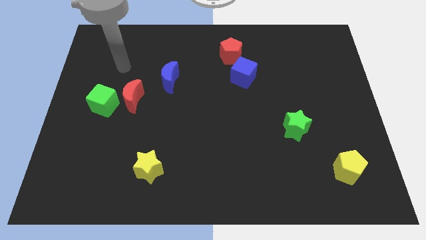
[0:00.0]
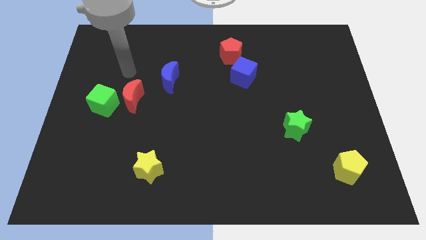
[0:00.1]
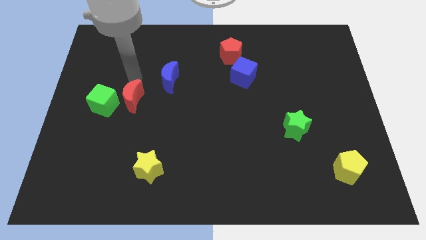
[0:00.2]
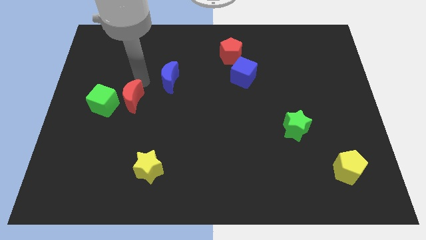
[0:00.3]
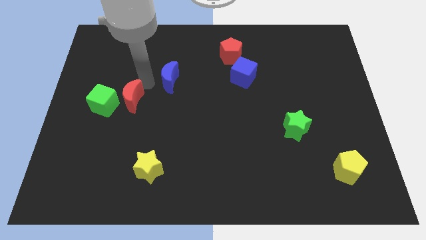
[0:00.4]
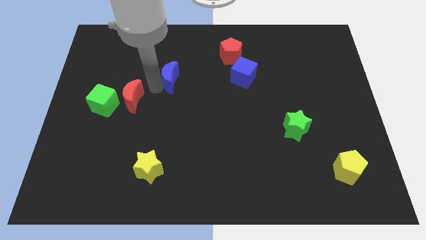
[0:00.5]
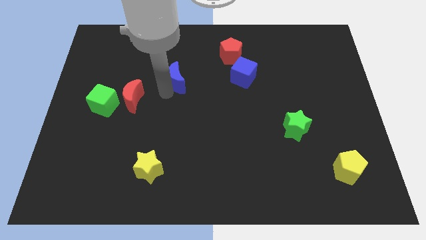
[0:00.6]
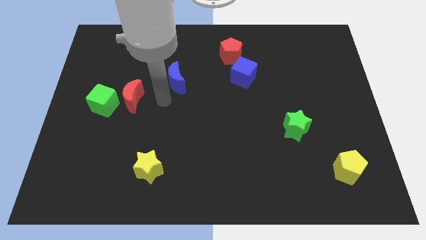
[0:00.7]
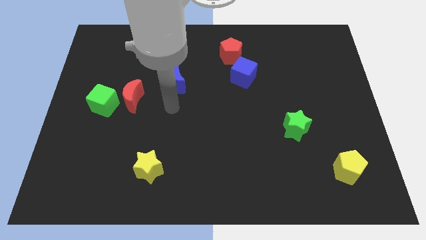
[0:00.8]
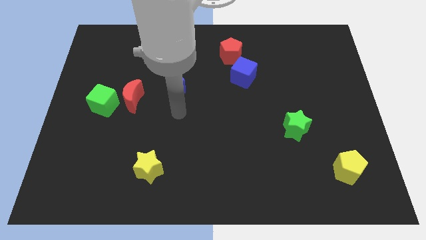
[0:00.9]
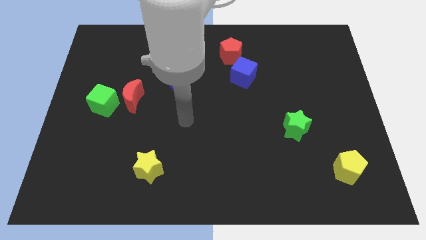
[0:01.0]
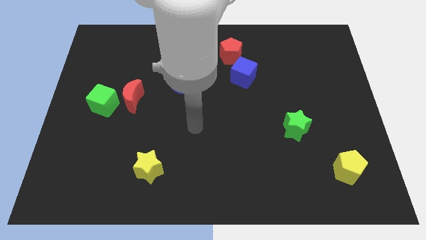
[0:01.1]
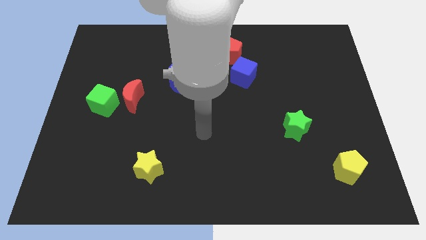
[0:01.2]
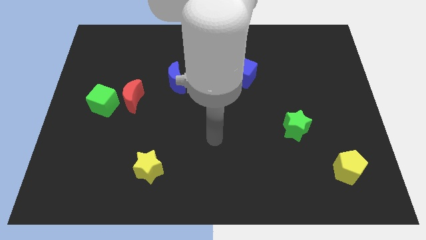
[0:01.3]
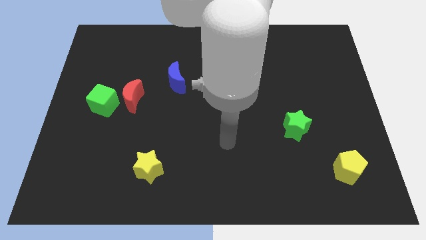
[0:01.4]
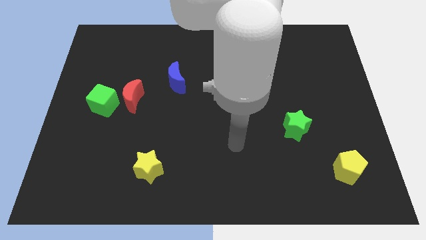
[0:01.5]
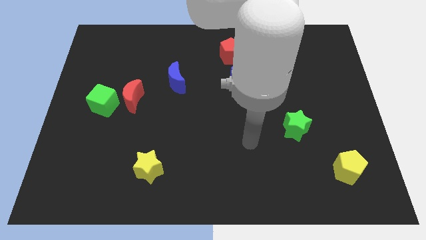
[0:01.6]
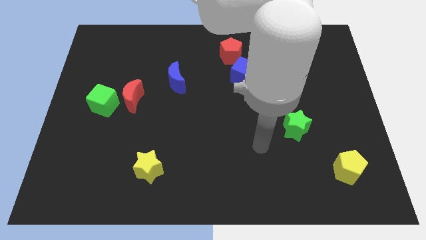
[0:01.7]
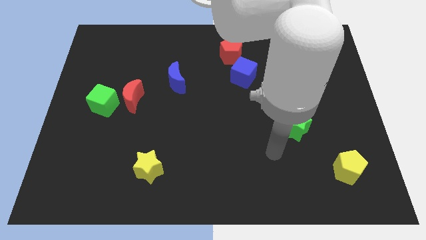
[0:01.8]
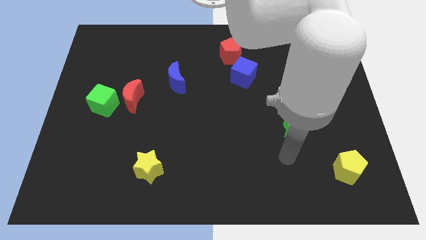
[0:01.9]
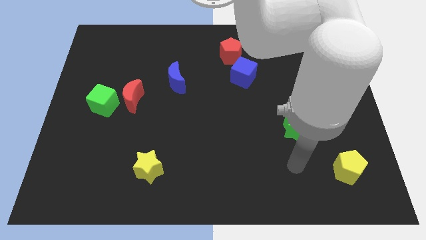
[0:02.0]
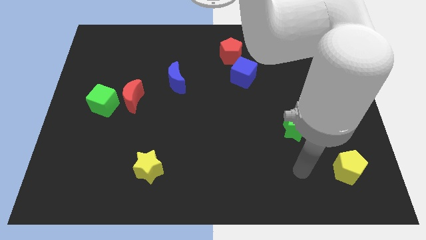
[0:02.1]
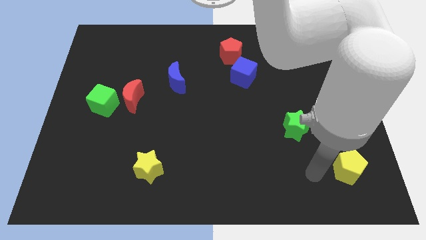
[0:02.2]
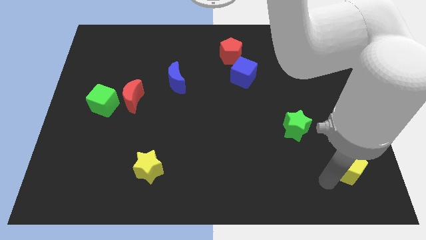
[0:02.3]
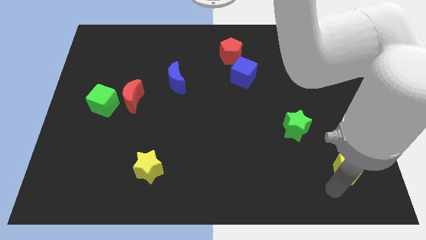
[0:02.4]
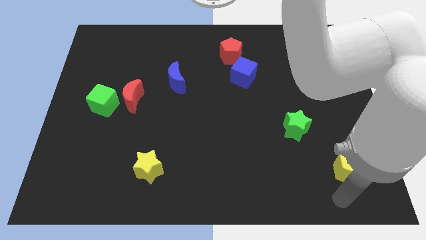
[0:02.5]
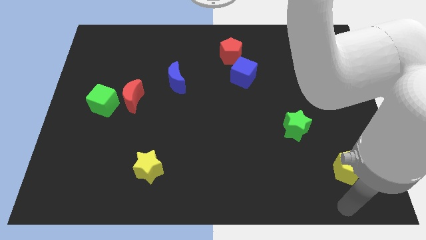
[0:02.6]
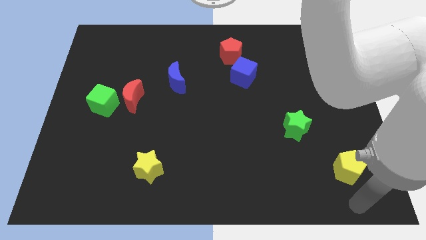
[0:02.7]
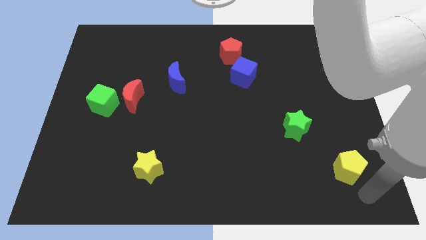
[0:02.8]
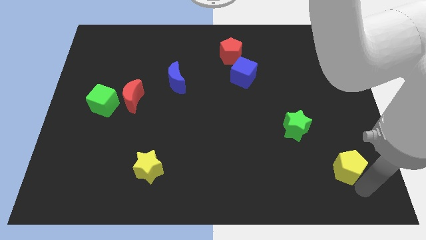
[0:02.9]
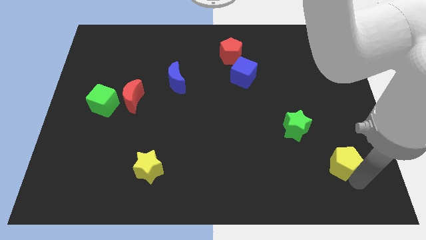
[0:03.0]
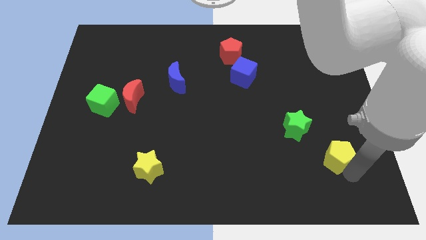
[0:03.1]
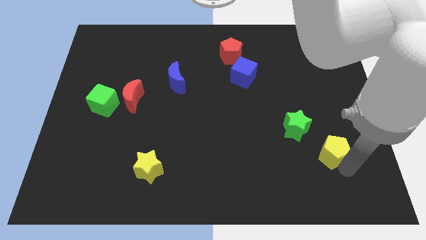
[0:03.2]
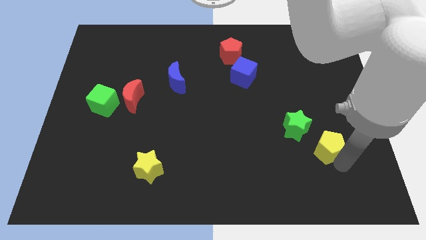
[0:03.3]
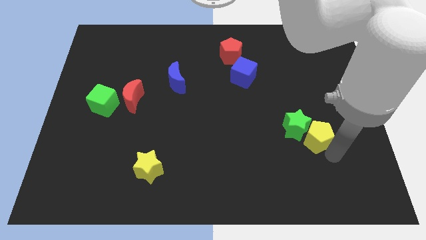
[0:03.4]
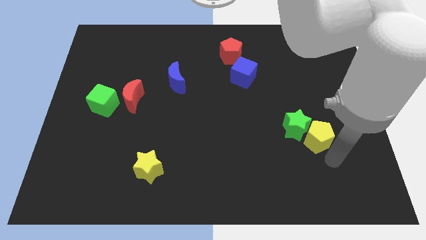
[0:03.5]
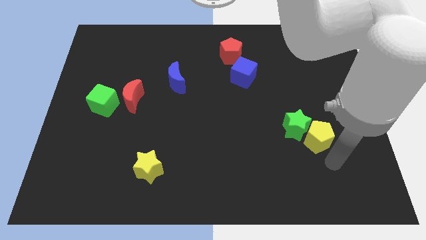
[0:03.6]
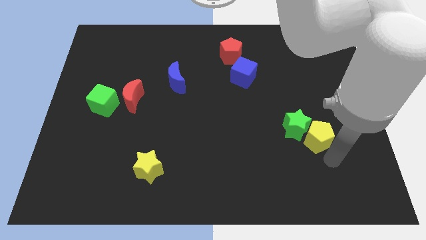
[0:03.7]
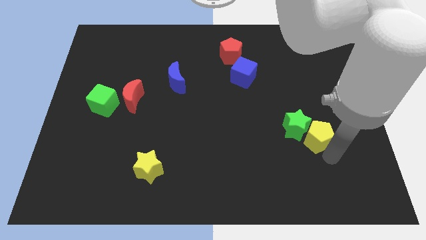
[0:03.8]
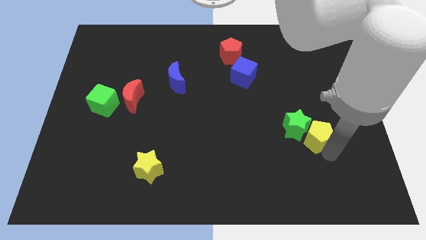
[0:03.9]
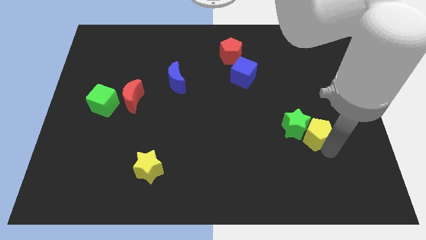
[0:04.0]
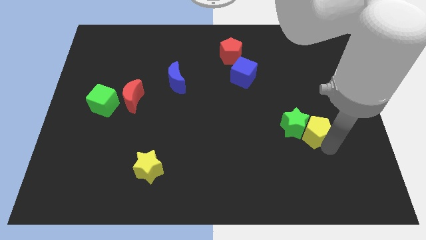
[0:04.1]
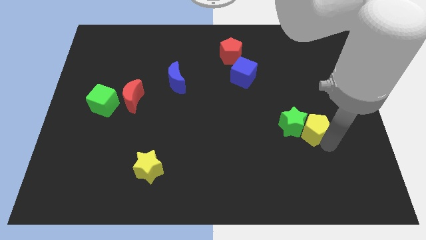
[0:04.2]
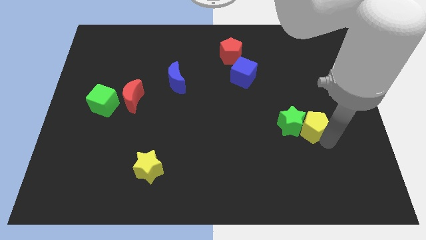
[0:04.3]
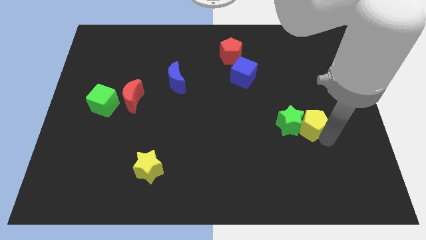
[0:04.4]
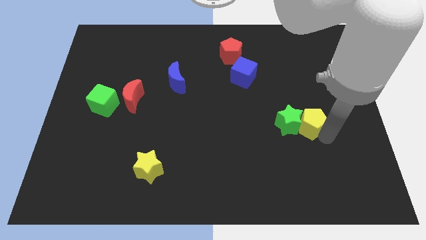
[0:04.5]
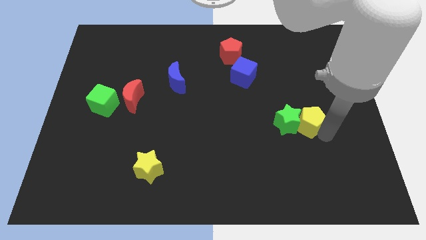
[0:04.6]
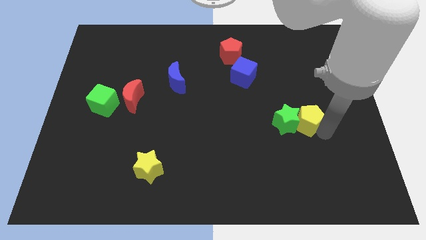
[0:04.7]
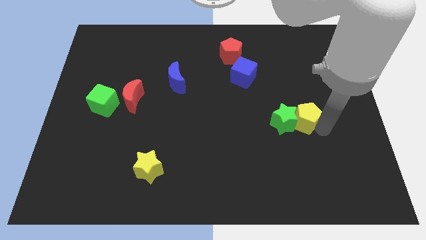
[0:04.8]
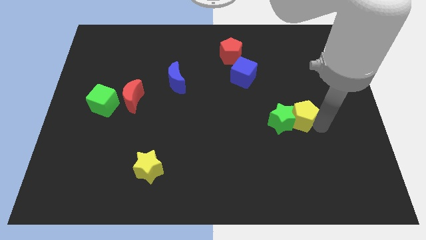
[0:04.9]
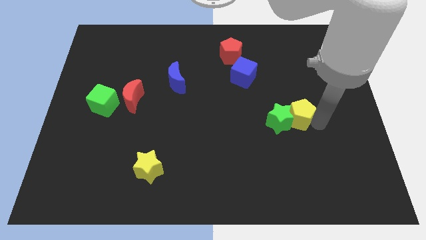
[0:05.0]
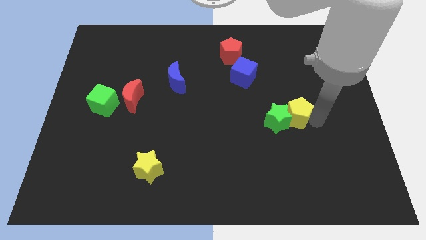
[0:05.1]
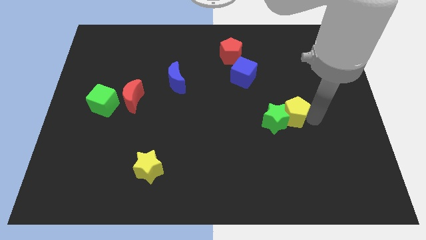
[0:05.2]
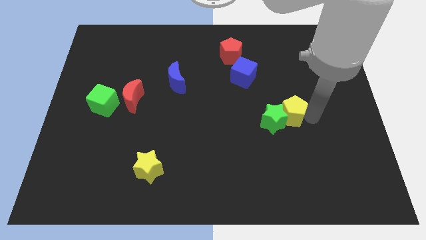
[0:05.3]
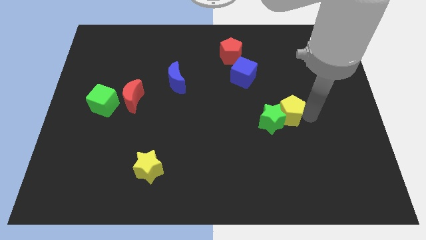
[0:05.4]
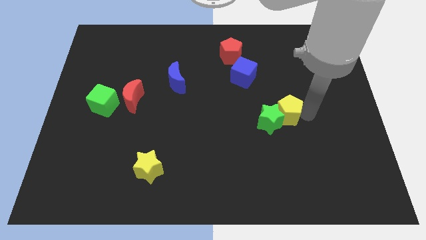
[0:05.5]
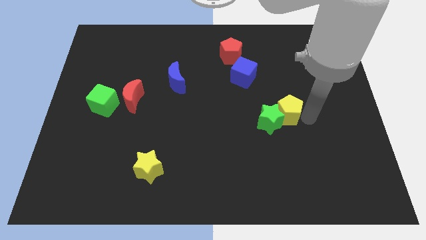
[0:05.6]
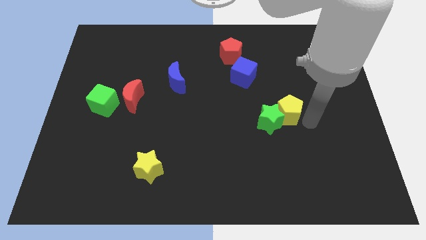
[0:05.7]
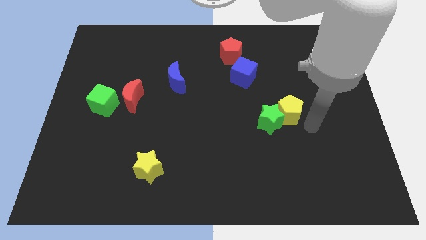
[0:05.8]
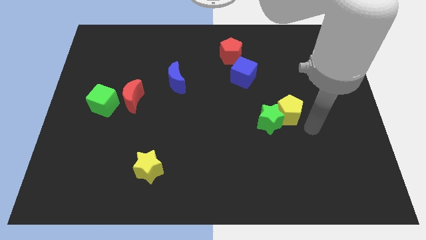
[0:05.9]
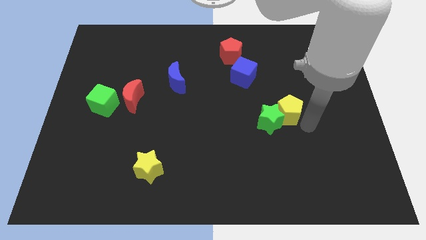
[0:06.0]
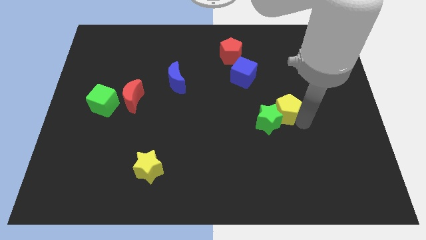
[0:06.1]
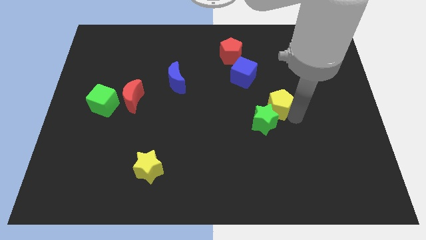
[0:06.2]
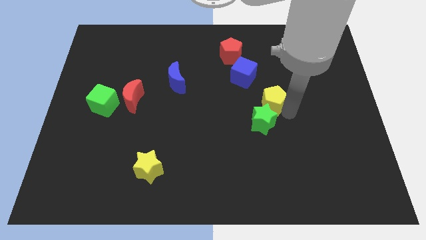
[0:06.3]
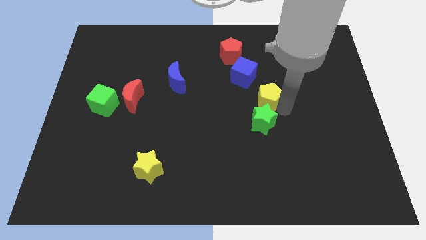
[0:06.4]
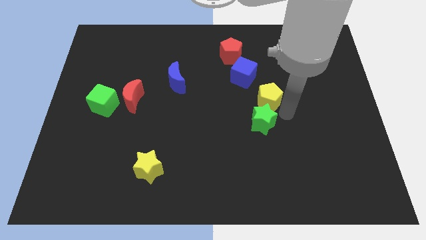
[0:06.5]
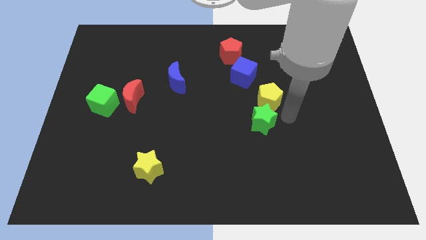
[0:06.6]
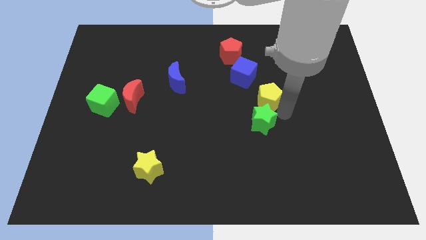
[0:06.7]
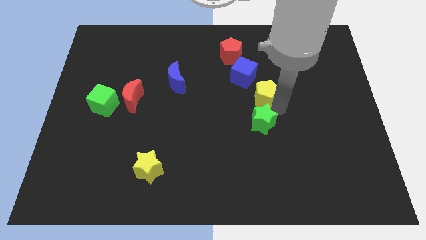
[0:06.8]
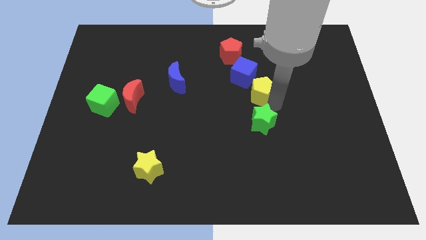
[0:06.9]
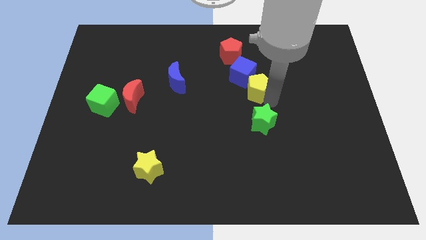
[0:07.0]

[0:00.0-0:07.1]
move the yellow pentagon next to the blue cube

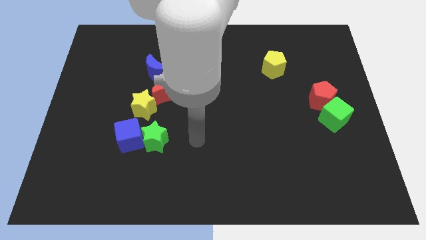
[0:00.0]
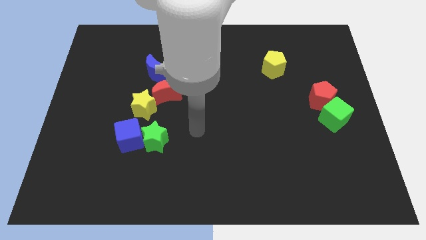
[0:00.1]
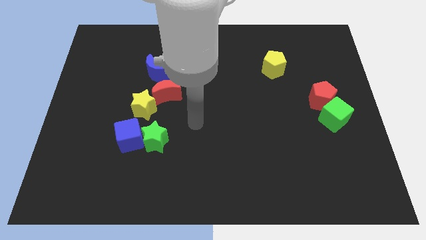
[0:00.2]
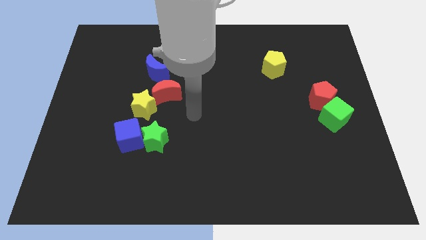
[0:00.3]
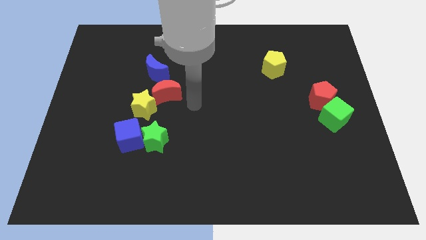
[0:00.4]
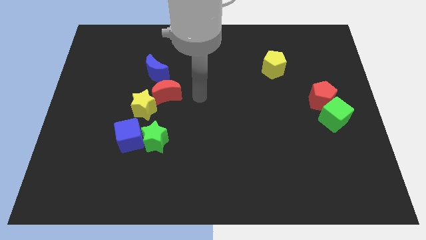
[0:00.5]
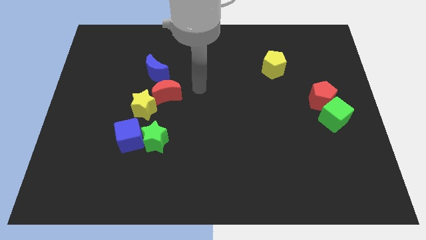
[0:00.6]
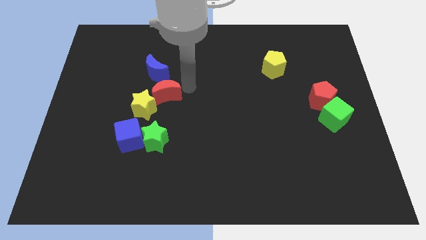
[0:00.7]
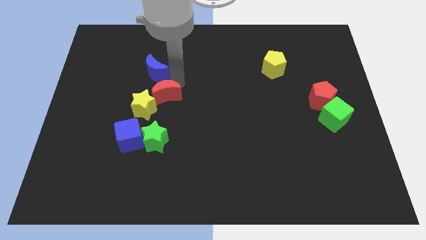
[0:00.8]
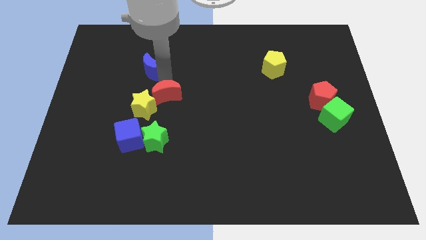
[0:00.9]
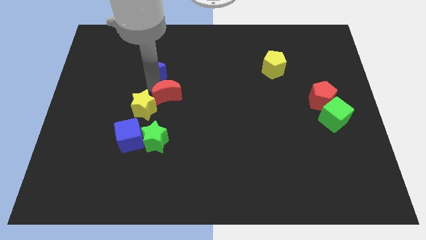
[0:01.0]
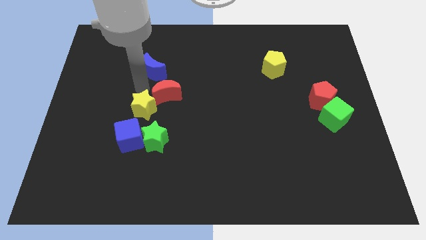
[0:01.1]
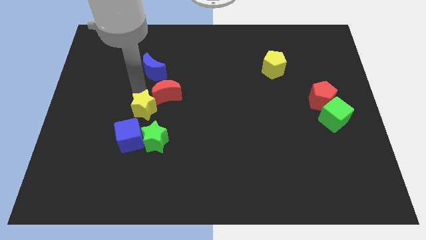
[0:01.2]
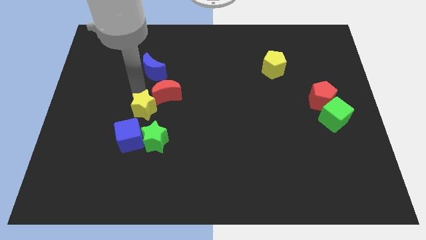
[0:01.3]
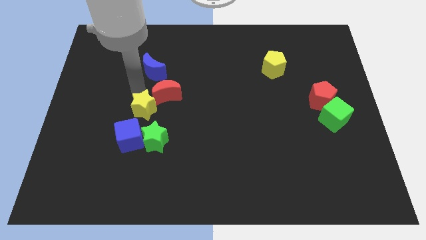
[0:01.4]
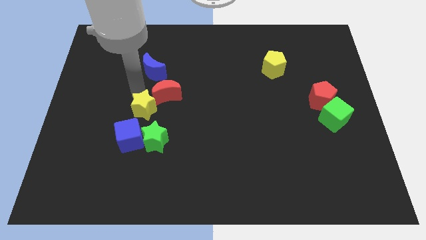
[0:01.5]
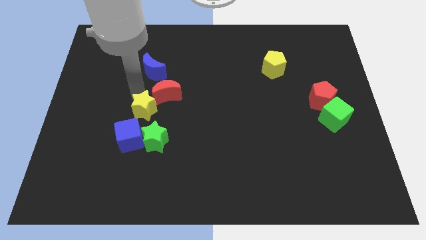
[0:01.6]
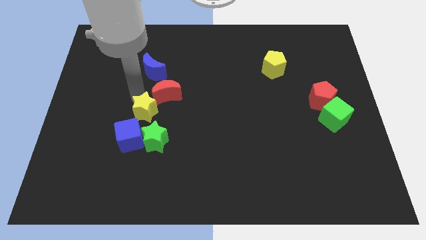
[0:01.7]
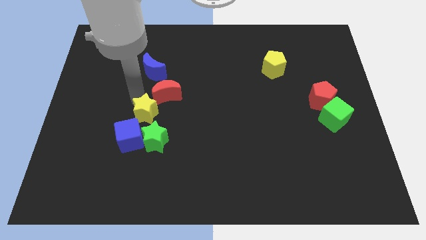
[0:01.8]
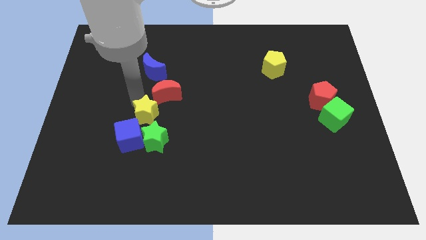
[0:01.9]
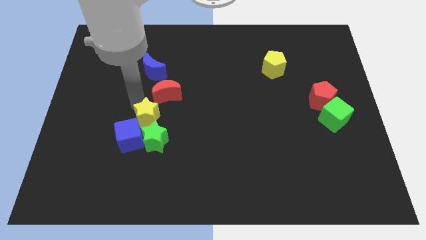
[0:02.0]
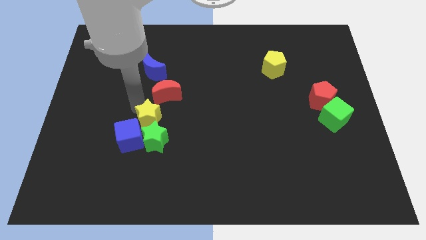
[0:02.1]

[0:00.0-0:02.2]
move the yellow star next to the green star
